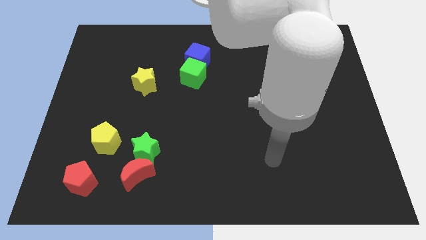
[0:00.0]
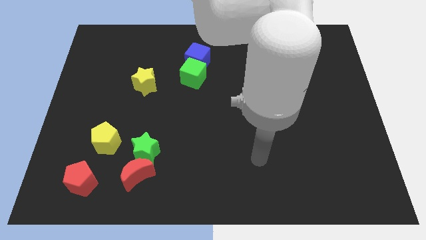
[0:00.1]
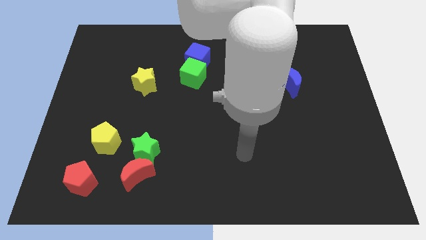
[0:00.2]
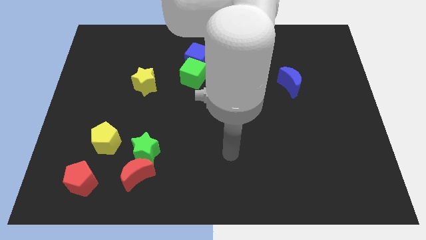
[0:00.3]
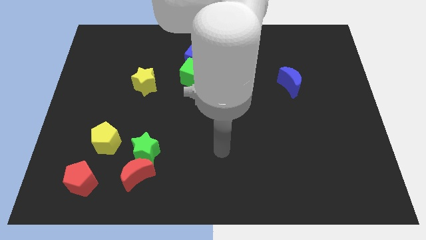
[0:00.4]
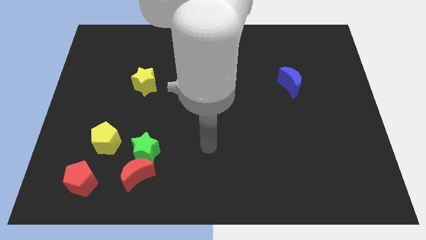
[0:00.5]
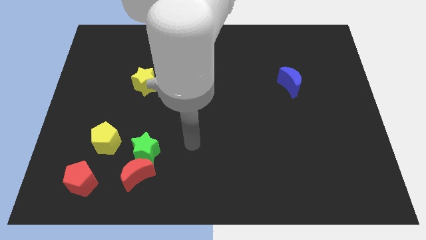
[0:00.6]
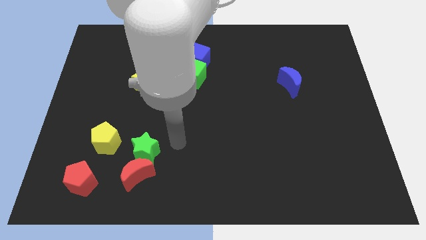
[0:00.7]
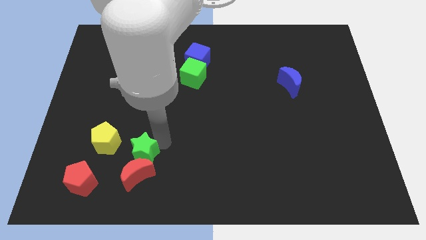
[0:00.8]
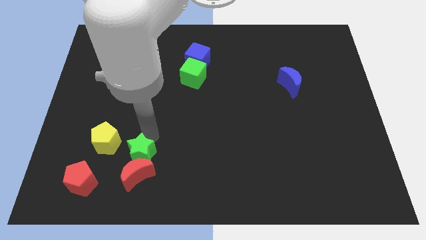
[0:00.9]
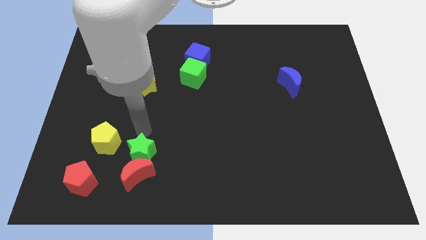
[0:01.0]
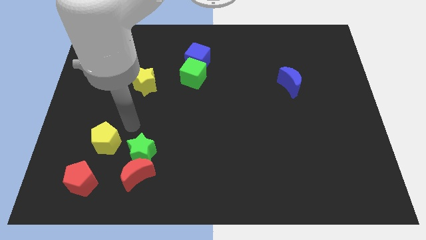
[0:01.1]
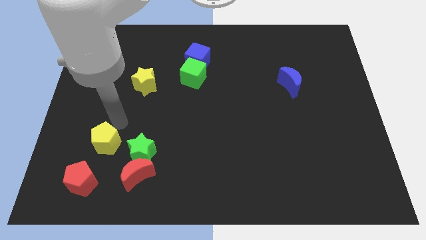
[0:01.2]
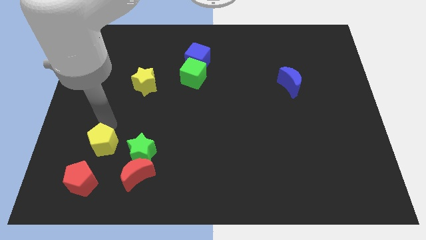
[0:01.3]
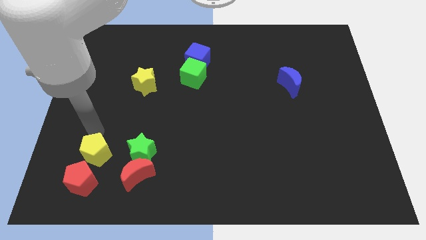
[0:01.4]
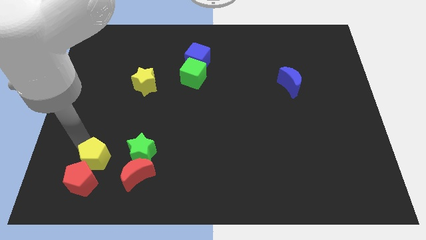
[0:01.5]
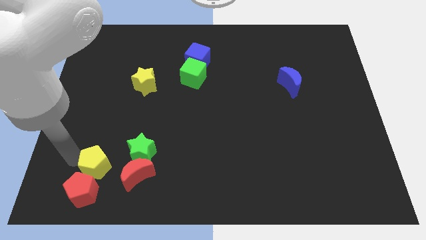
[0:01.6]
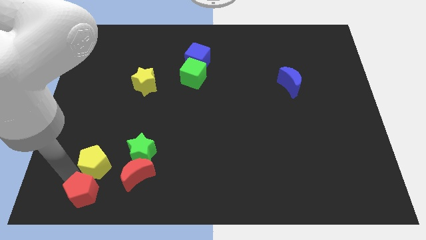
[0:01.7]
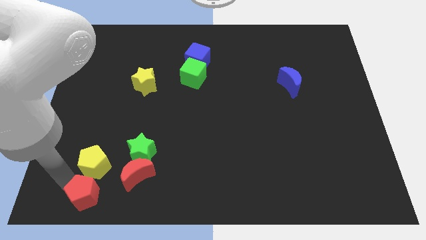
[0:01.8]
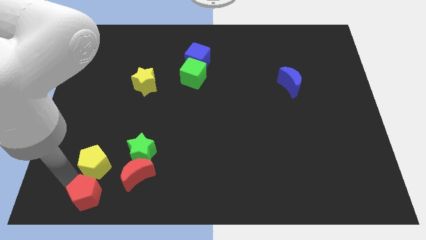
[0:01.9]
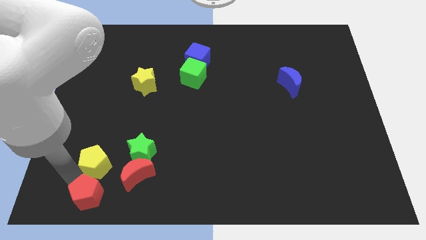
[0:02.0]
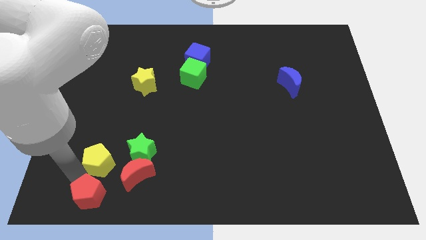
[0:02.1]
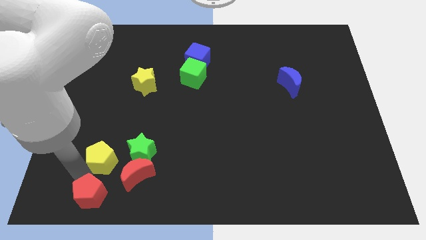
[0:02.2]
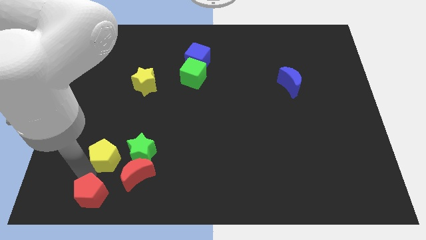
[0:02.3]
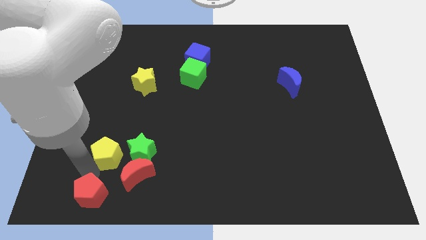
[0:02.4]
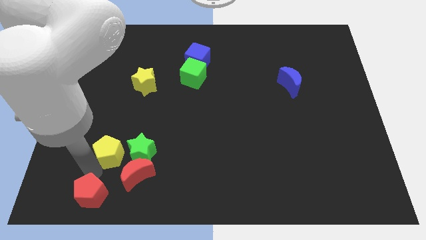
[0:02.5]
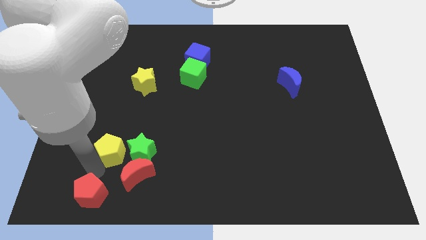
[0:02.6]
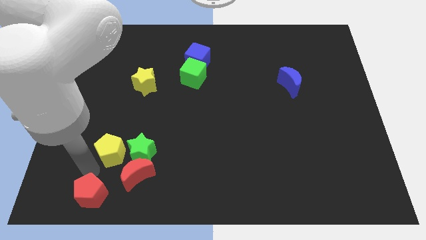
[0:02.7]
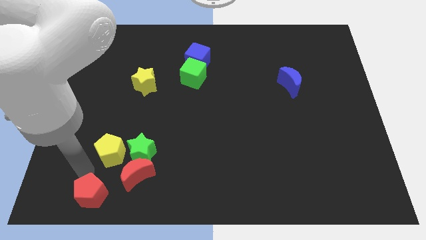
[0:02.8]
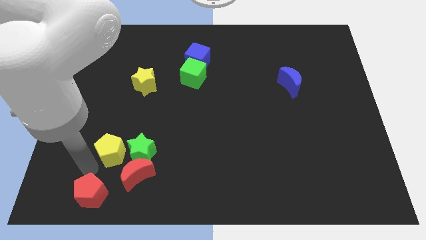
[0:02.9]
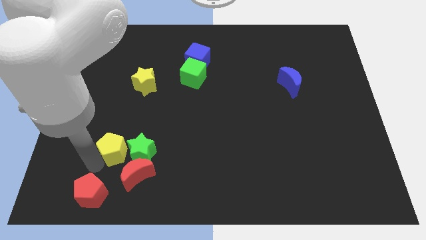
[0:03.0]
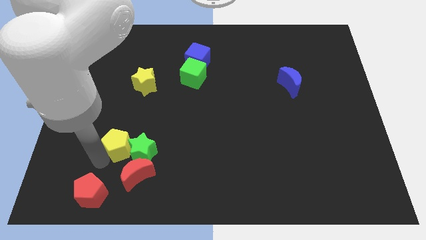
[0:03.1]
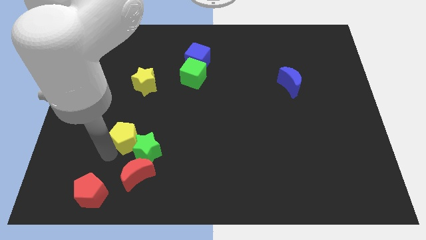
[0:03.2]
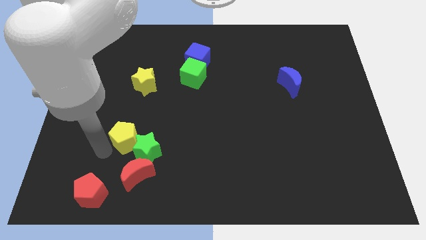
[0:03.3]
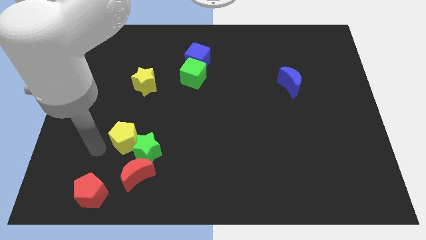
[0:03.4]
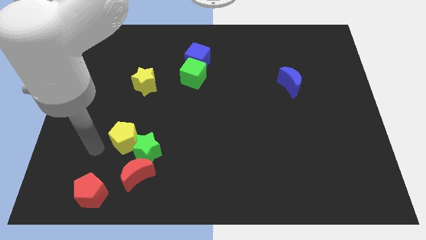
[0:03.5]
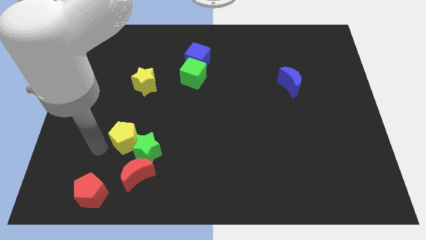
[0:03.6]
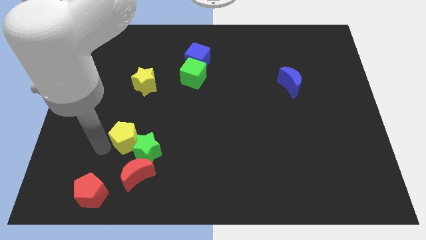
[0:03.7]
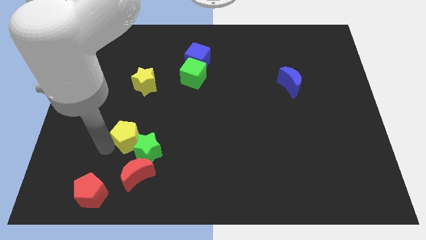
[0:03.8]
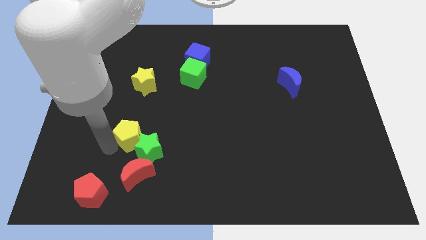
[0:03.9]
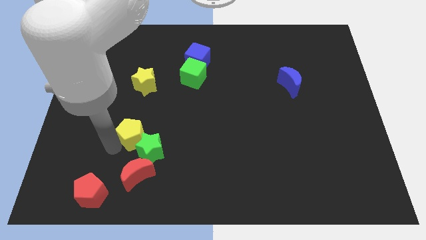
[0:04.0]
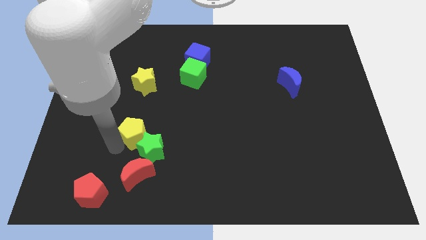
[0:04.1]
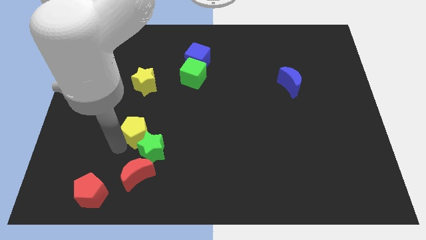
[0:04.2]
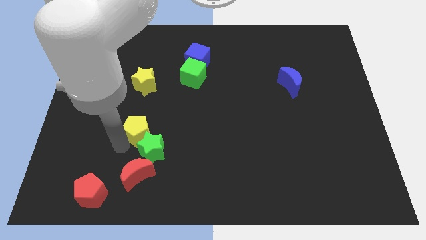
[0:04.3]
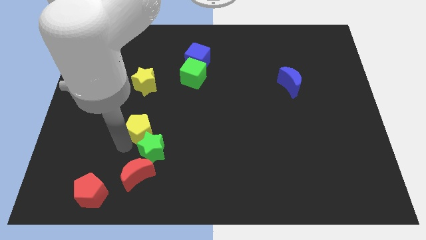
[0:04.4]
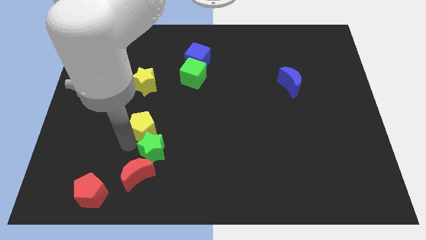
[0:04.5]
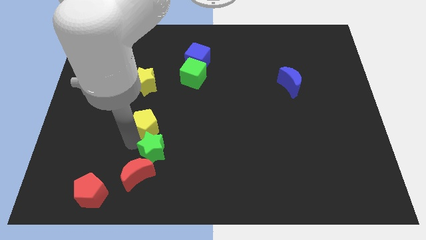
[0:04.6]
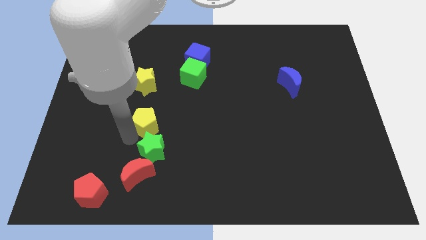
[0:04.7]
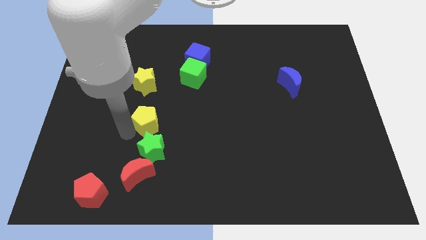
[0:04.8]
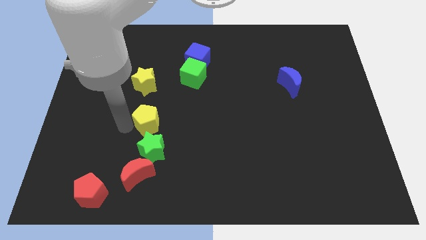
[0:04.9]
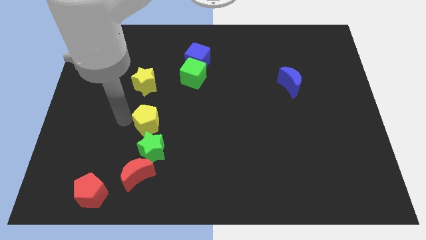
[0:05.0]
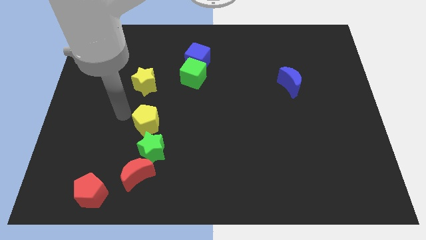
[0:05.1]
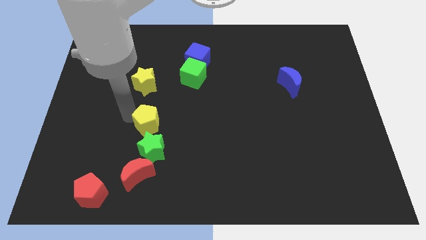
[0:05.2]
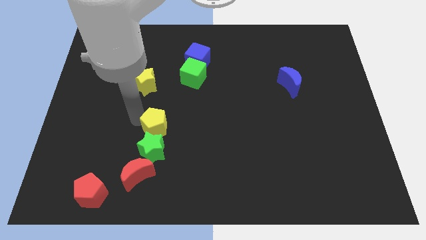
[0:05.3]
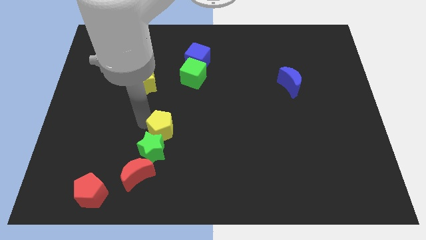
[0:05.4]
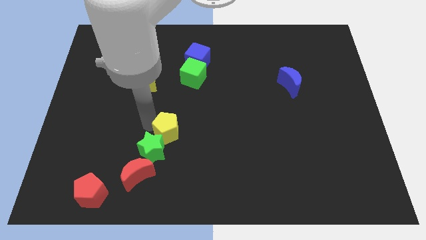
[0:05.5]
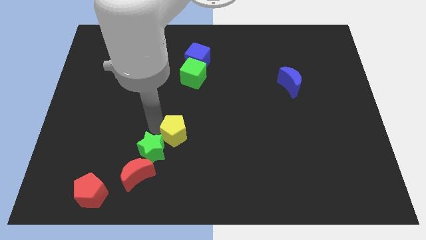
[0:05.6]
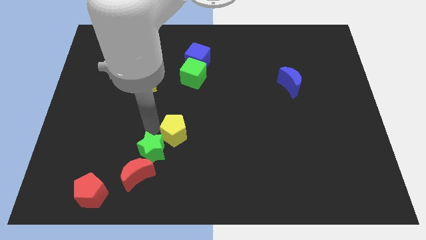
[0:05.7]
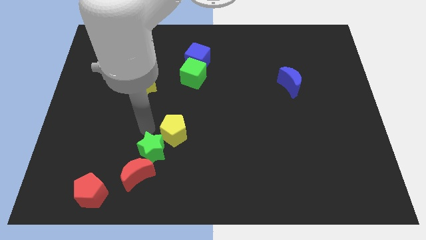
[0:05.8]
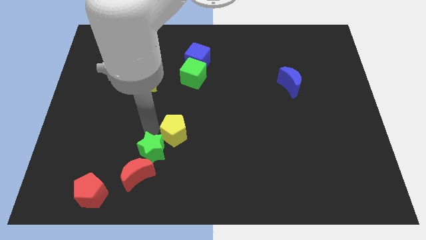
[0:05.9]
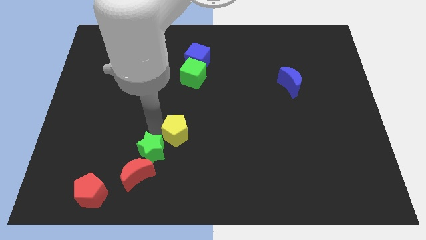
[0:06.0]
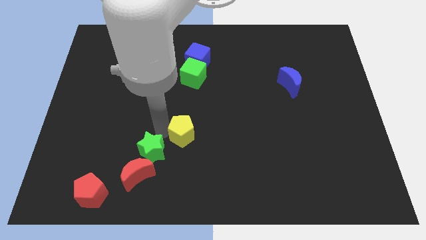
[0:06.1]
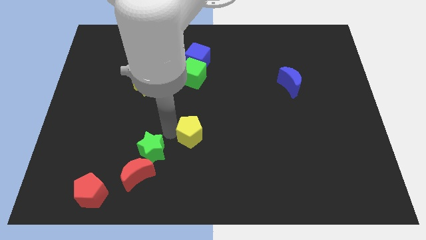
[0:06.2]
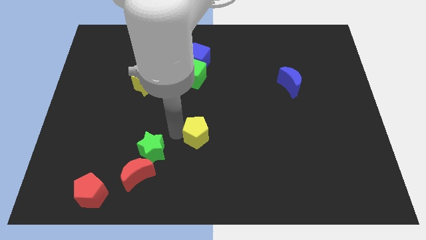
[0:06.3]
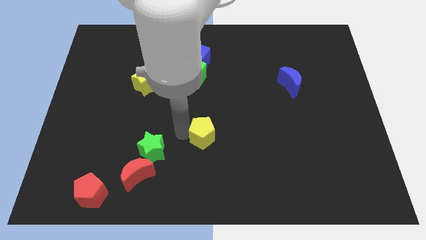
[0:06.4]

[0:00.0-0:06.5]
slide the yellow pentagon right

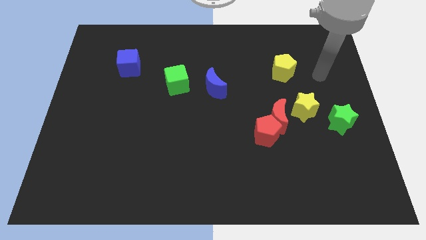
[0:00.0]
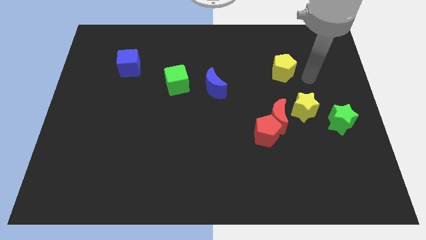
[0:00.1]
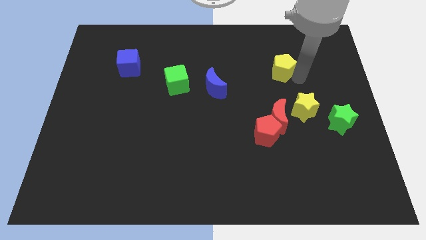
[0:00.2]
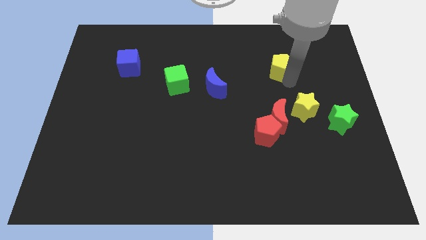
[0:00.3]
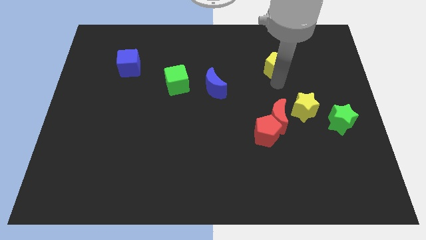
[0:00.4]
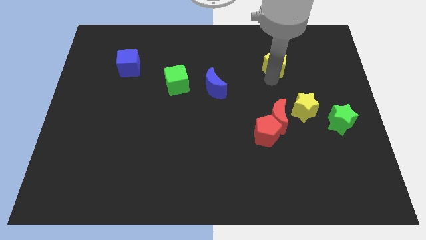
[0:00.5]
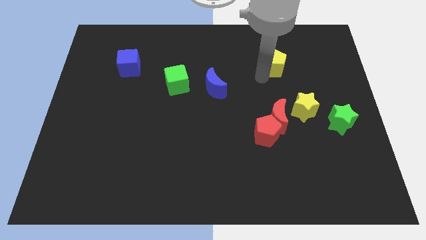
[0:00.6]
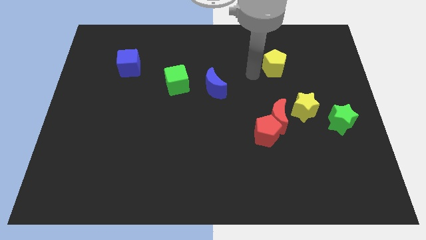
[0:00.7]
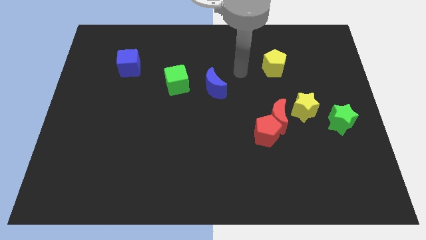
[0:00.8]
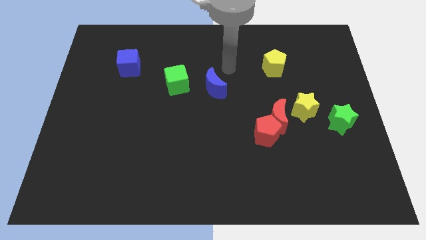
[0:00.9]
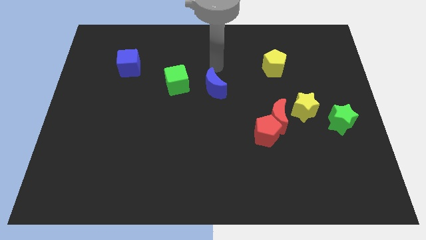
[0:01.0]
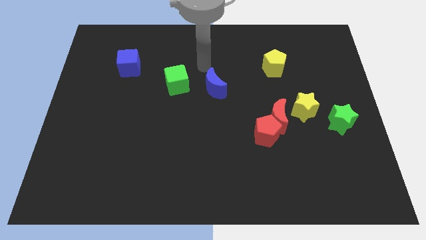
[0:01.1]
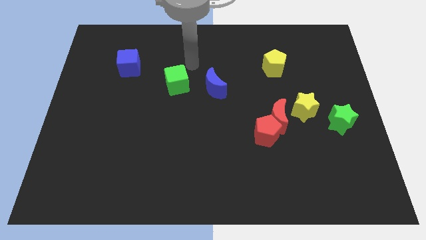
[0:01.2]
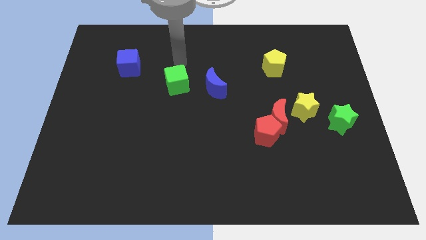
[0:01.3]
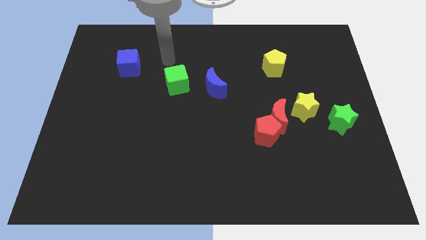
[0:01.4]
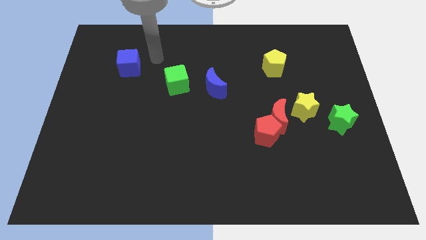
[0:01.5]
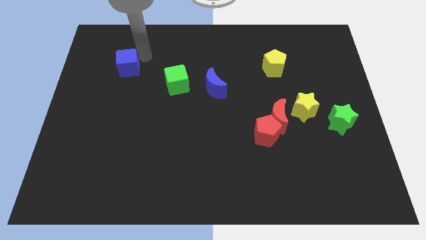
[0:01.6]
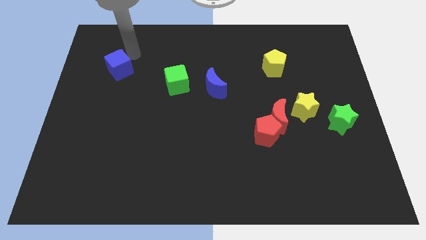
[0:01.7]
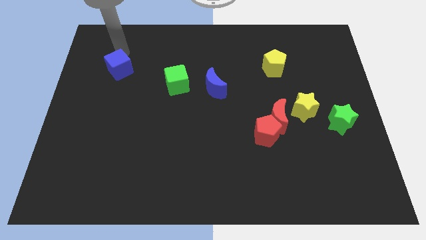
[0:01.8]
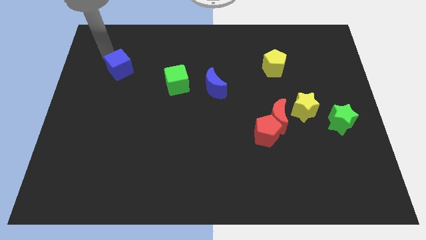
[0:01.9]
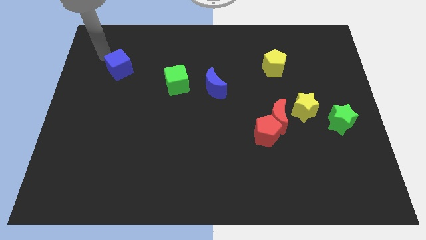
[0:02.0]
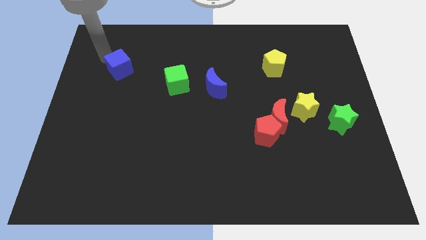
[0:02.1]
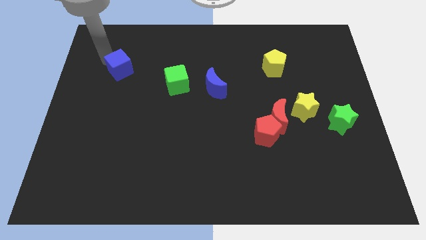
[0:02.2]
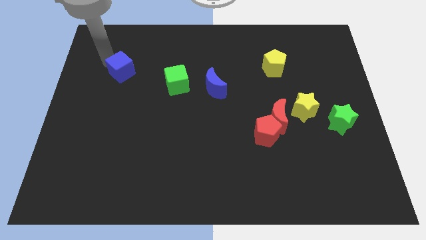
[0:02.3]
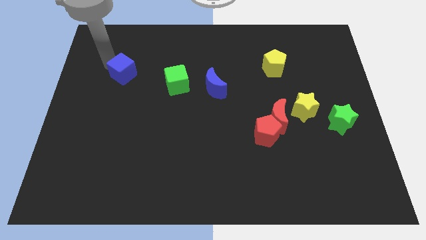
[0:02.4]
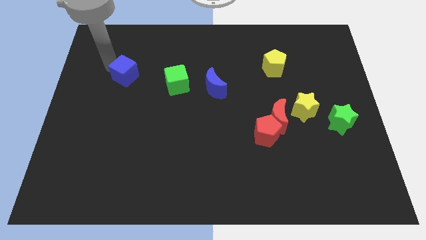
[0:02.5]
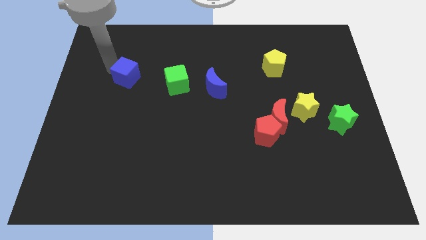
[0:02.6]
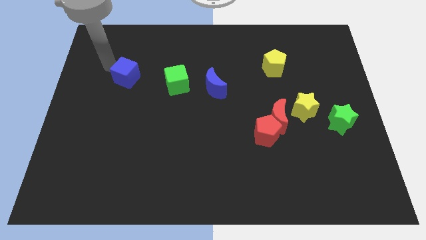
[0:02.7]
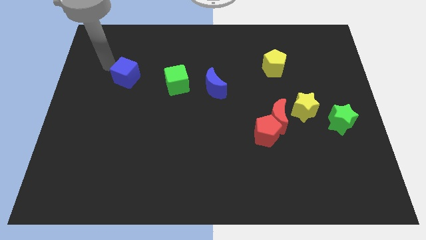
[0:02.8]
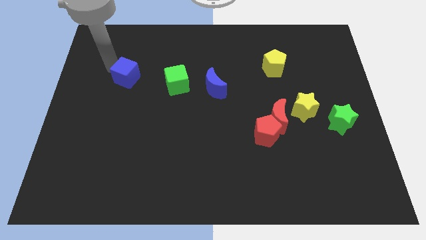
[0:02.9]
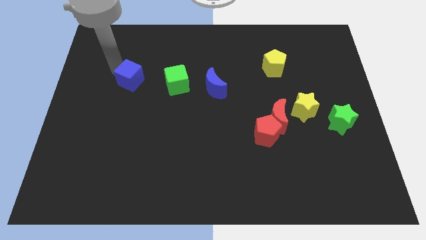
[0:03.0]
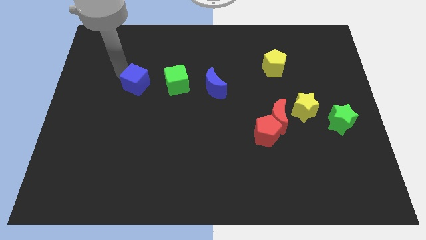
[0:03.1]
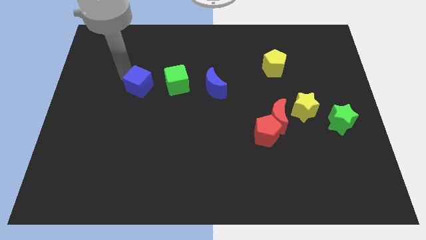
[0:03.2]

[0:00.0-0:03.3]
slightly push the blue cube down and right diagonally
